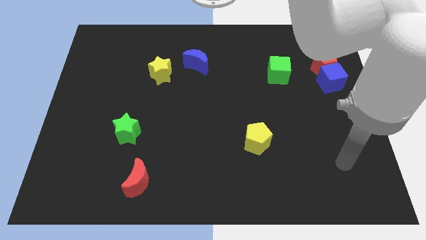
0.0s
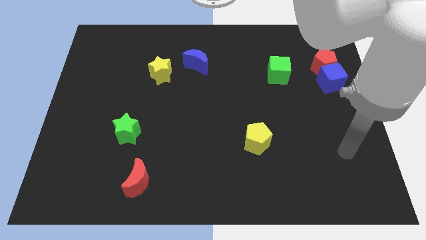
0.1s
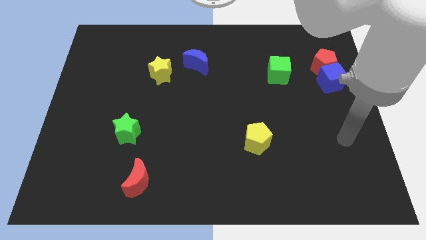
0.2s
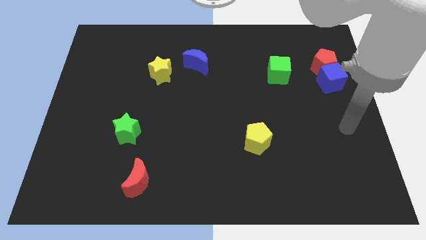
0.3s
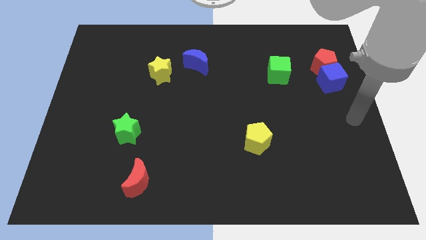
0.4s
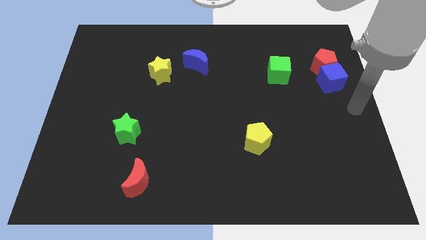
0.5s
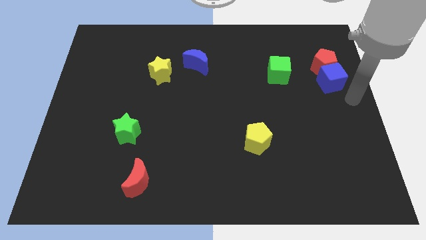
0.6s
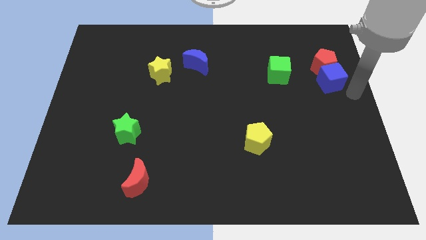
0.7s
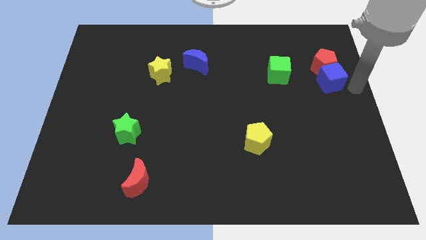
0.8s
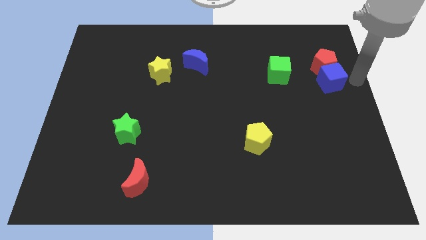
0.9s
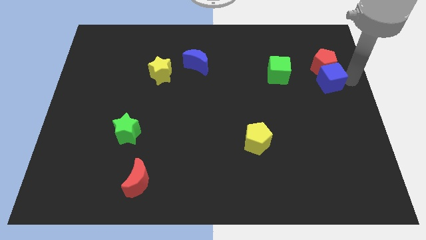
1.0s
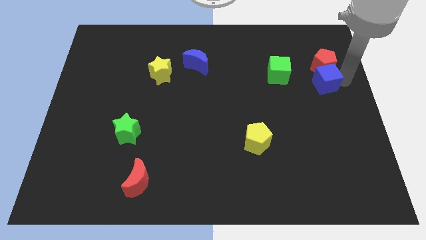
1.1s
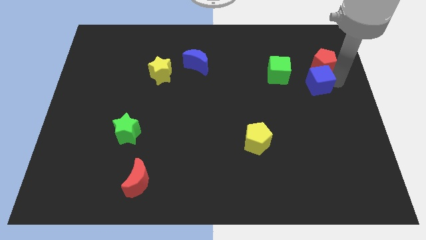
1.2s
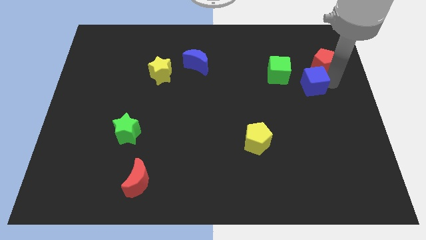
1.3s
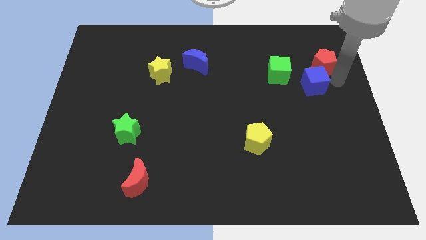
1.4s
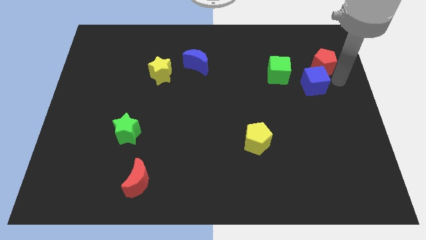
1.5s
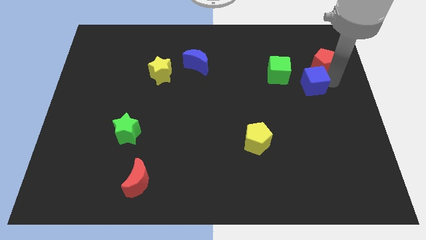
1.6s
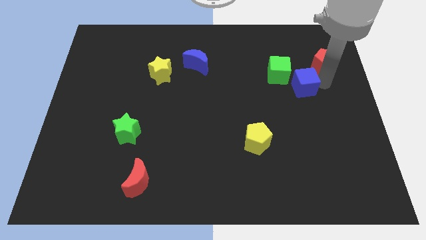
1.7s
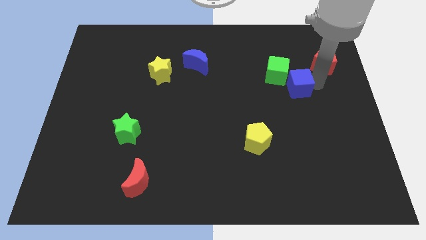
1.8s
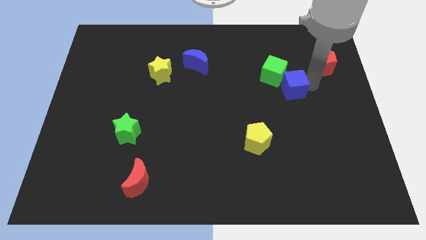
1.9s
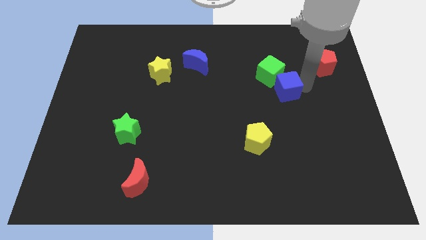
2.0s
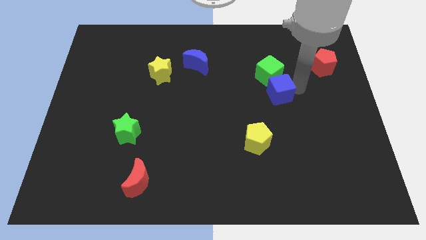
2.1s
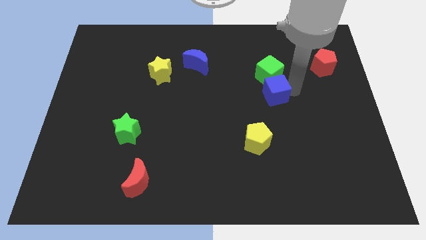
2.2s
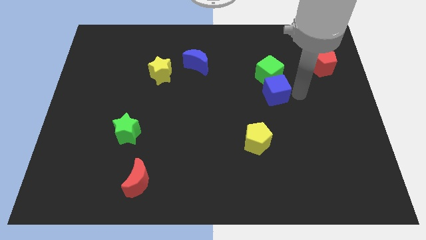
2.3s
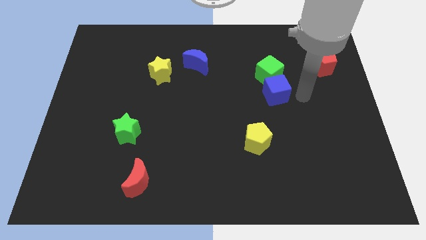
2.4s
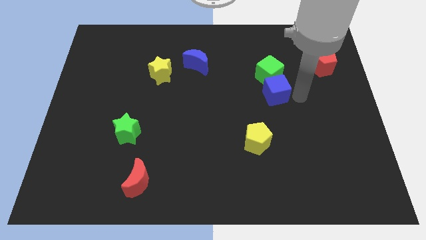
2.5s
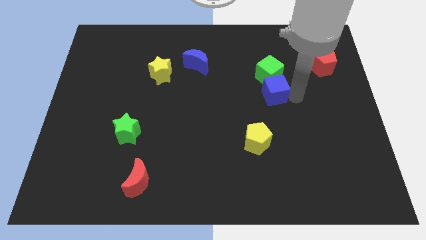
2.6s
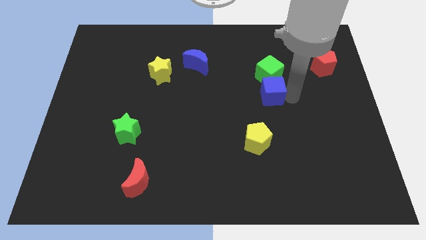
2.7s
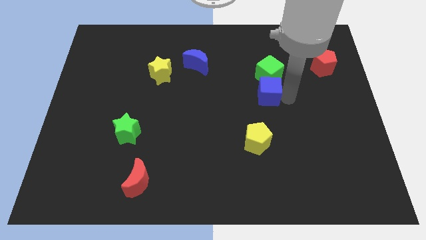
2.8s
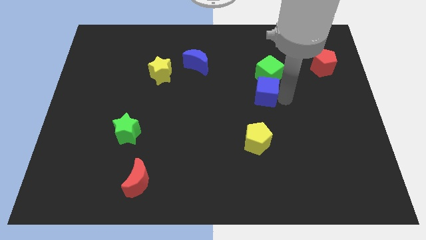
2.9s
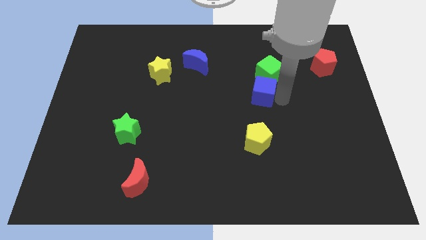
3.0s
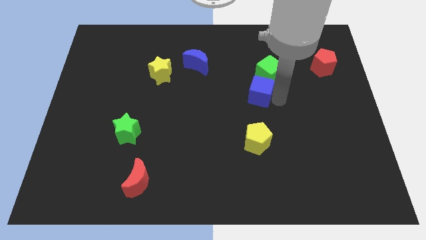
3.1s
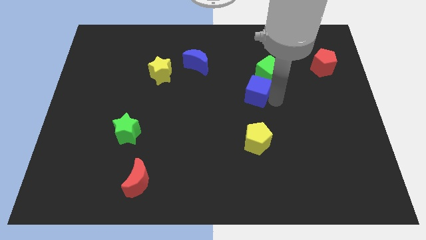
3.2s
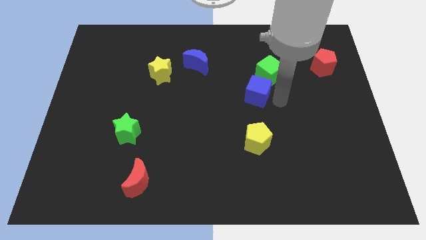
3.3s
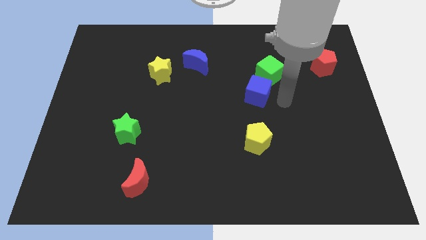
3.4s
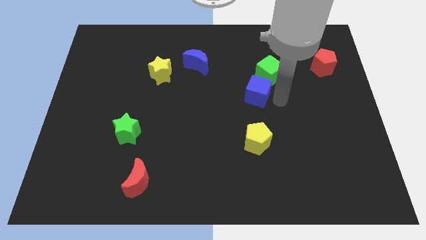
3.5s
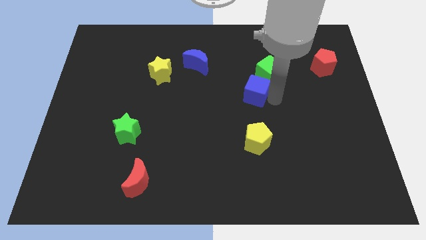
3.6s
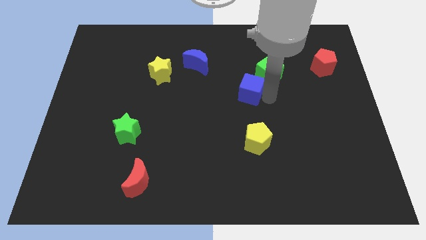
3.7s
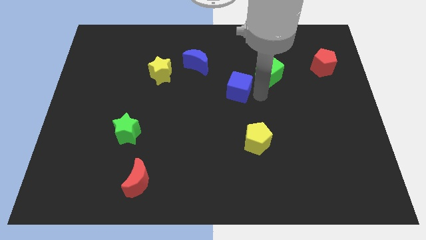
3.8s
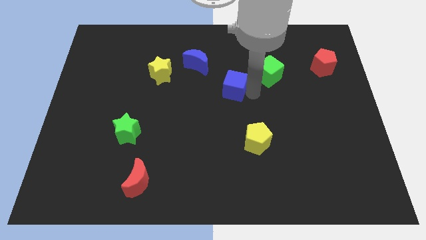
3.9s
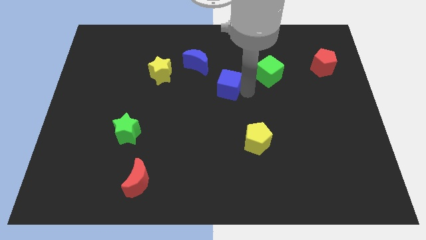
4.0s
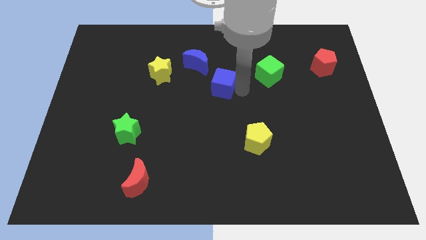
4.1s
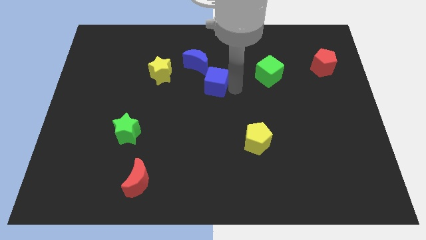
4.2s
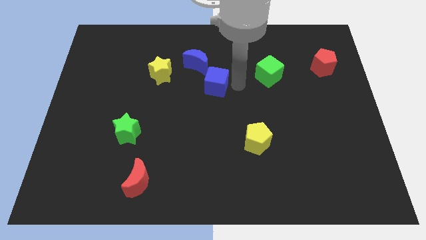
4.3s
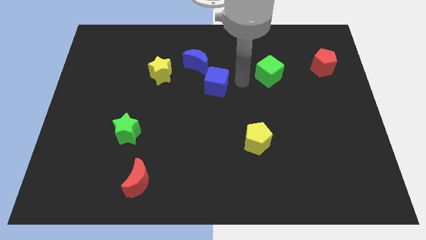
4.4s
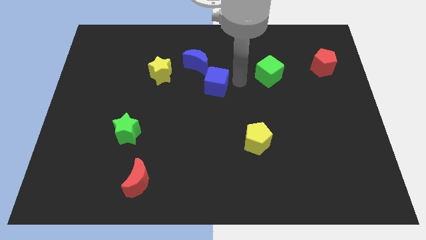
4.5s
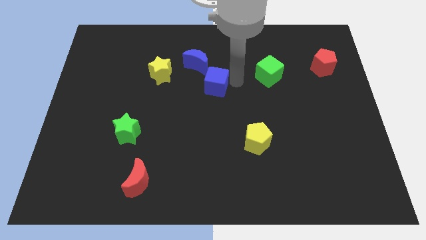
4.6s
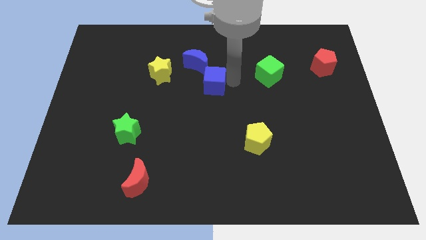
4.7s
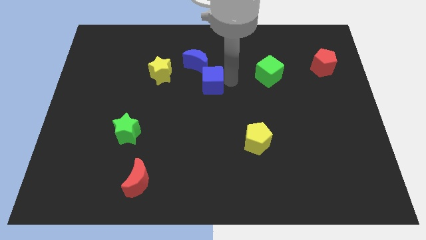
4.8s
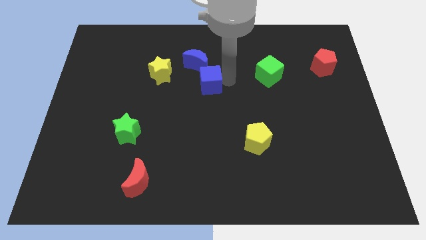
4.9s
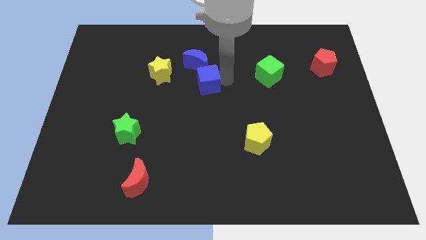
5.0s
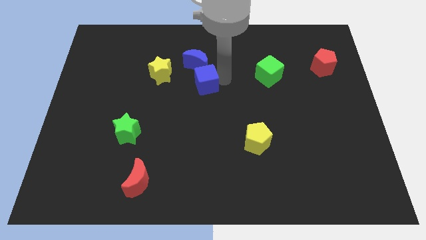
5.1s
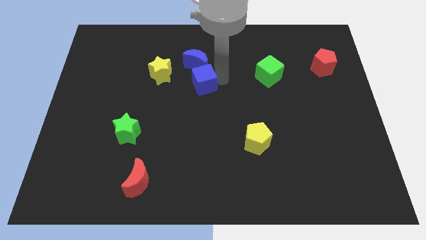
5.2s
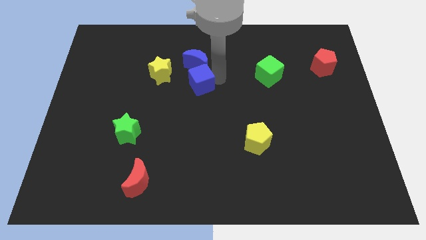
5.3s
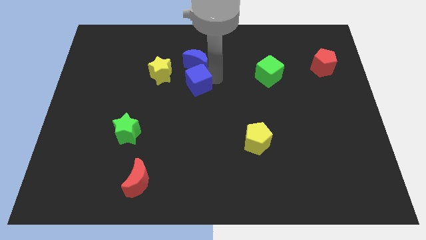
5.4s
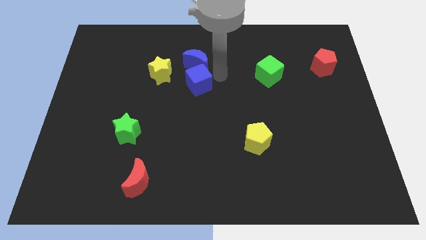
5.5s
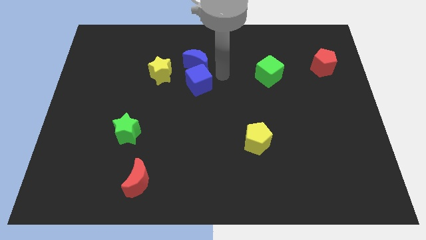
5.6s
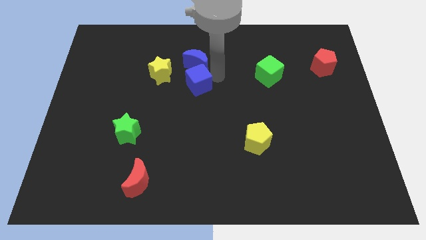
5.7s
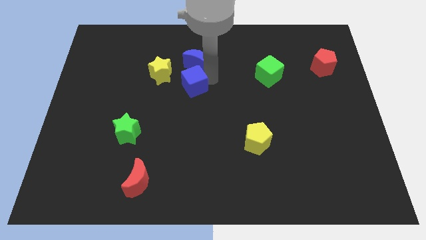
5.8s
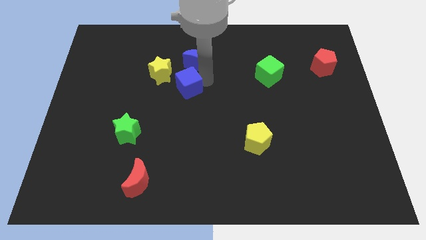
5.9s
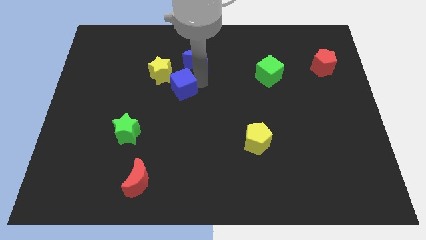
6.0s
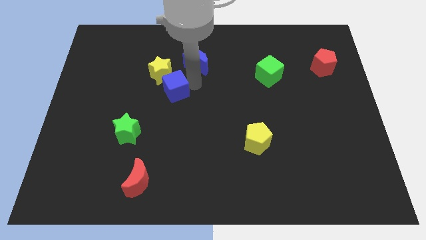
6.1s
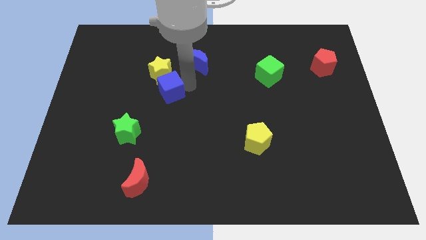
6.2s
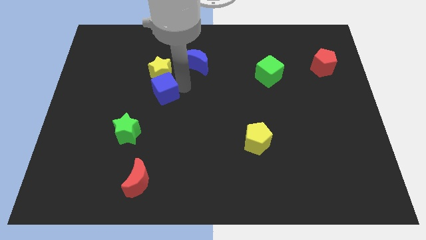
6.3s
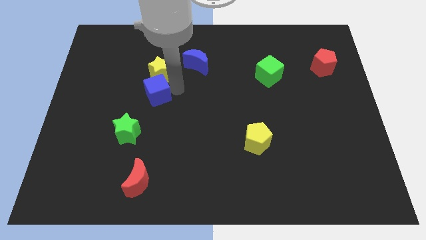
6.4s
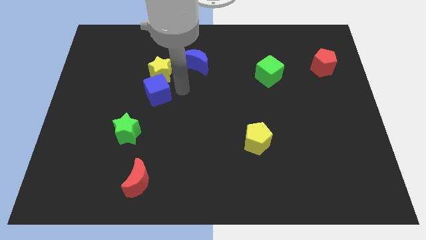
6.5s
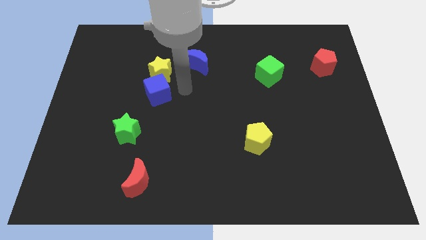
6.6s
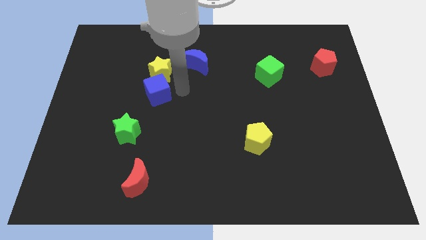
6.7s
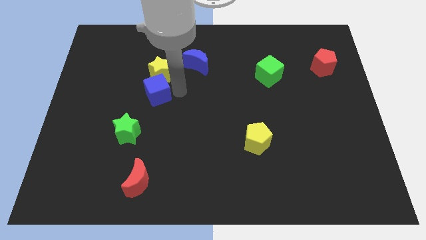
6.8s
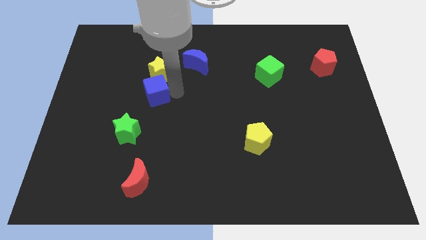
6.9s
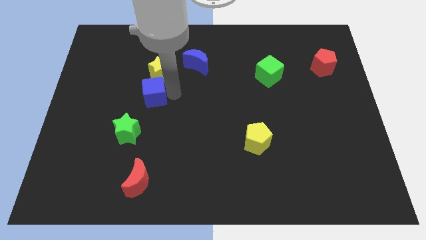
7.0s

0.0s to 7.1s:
slide the blue cube to the top of the green star
